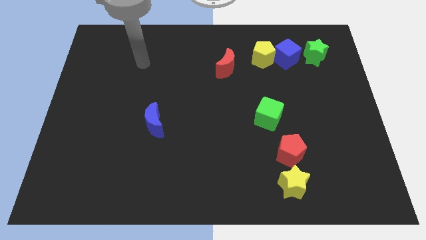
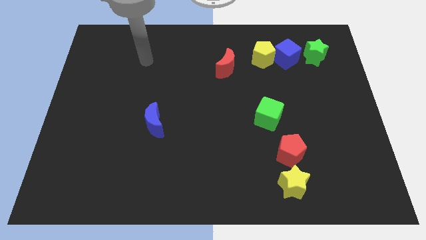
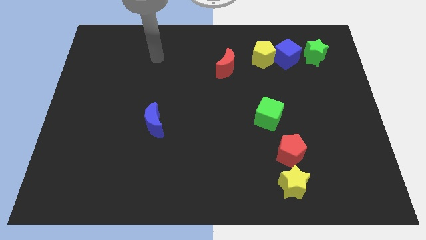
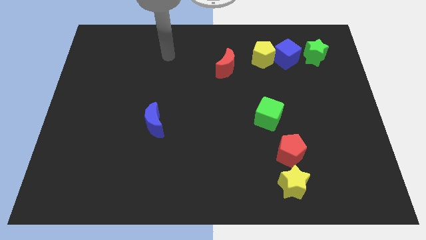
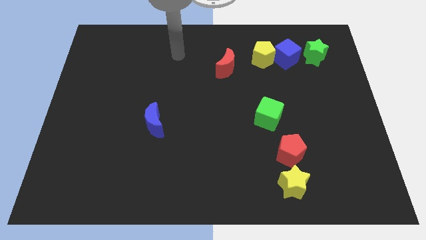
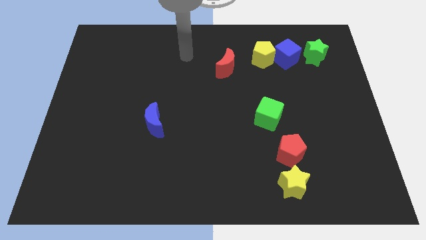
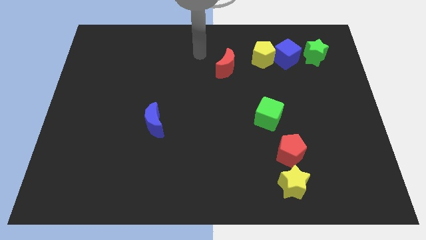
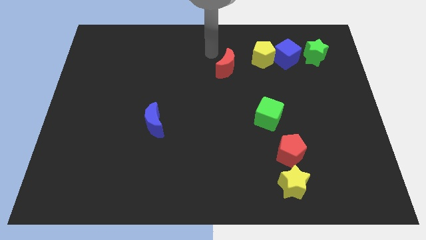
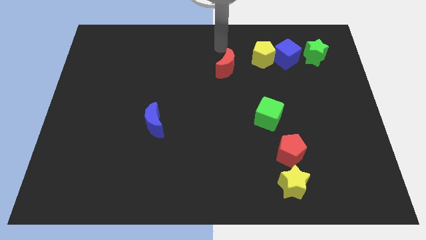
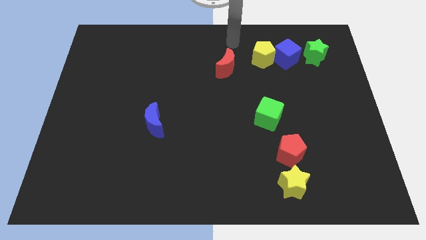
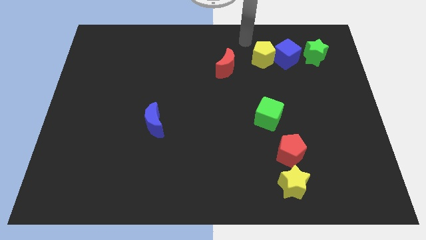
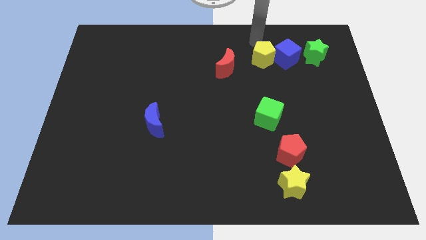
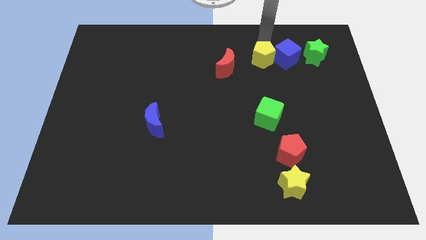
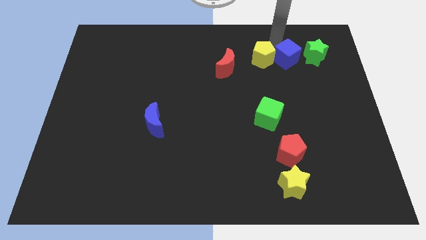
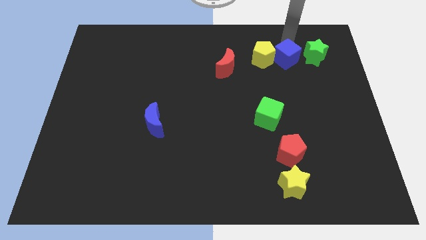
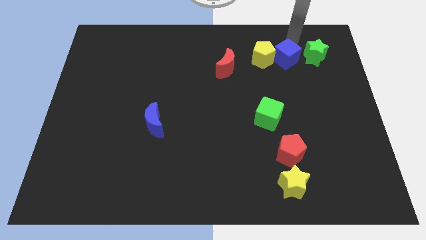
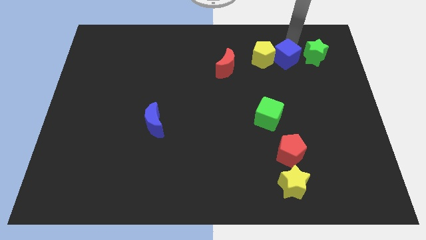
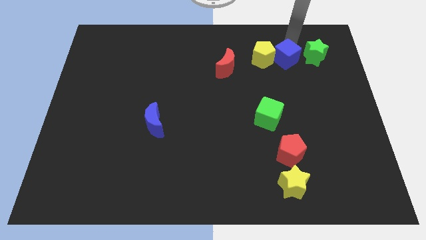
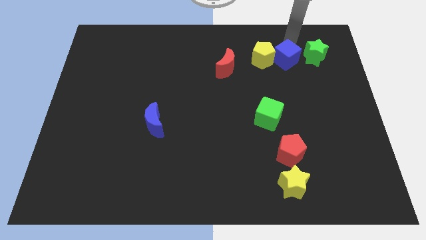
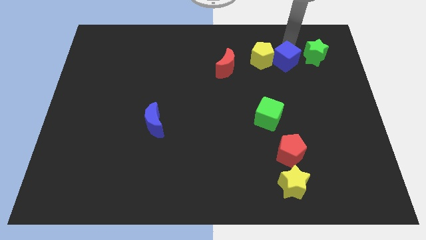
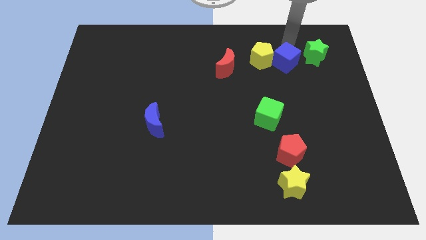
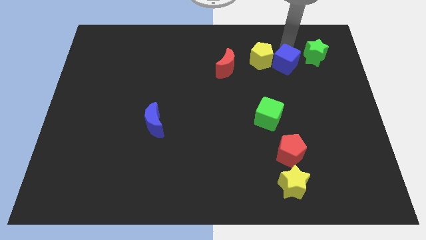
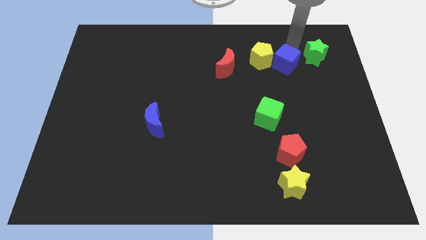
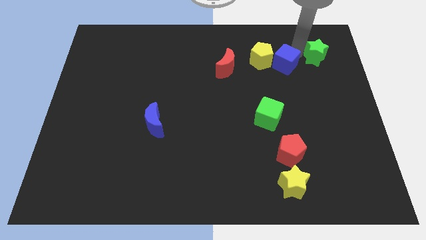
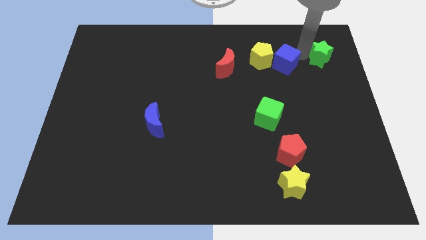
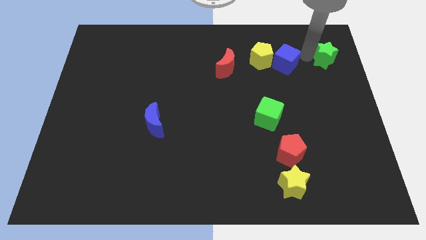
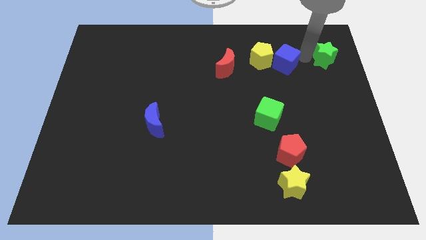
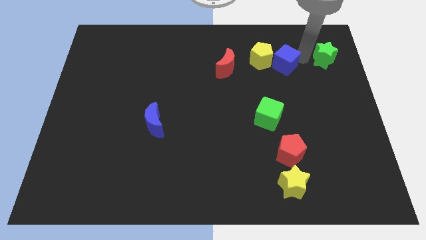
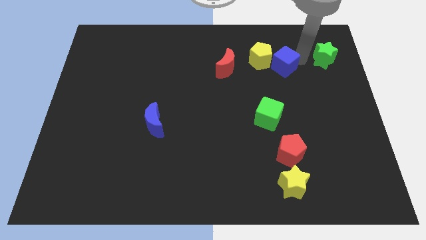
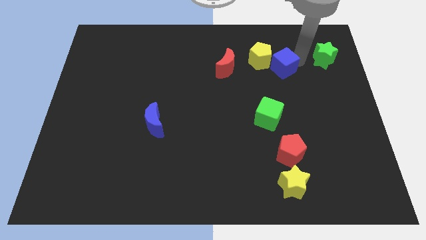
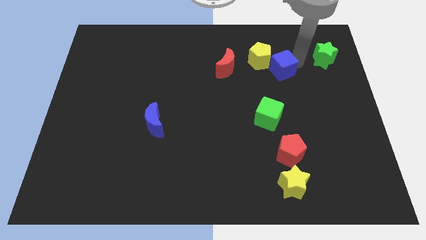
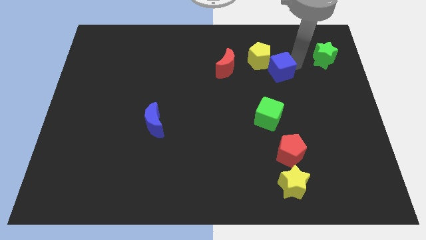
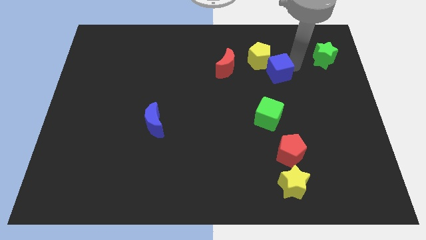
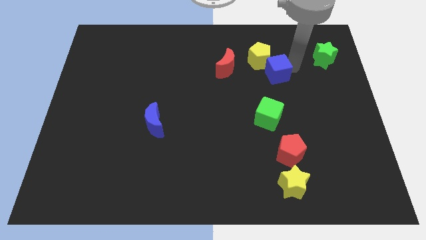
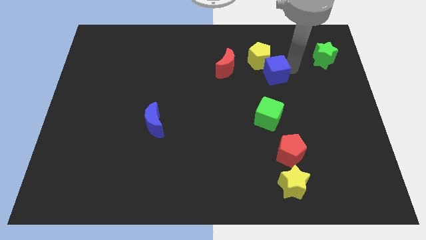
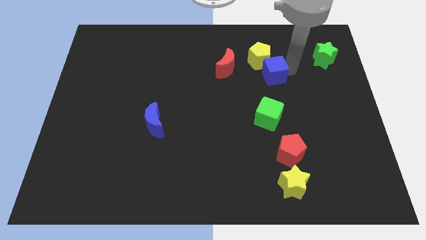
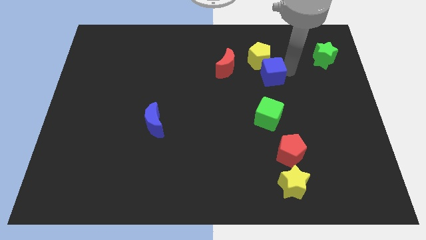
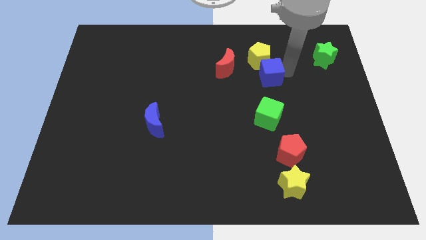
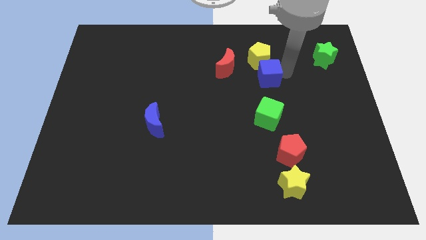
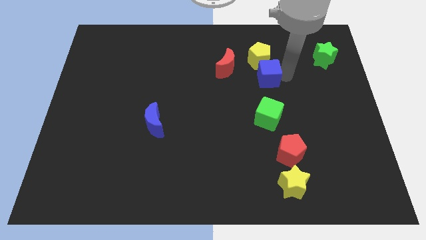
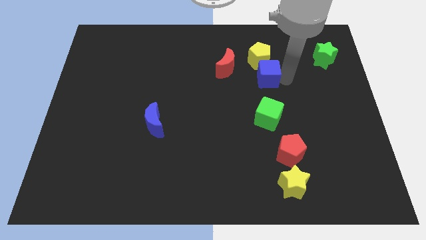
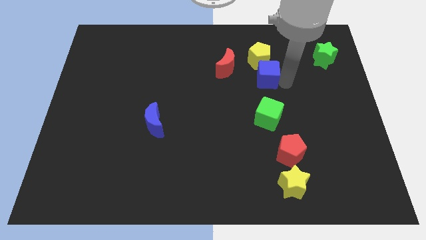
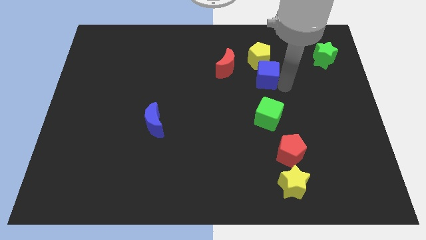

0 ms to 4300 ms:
move the blue cube away from the yellow pentagon and green star

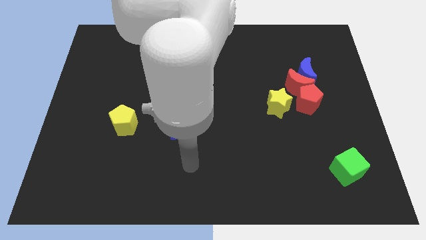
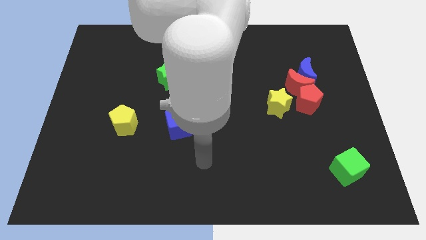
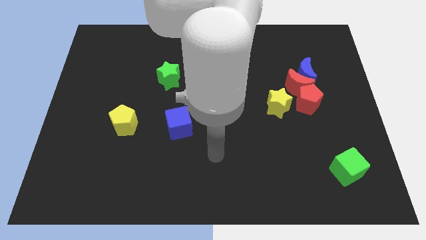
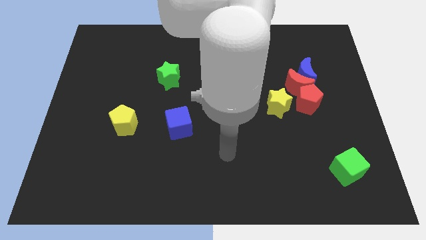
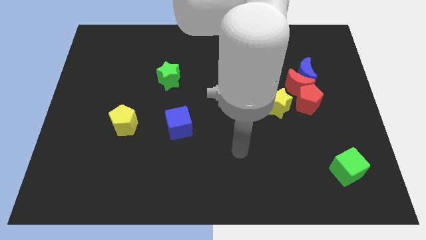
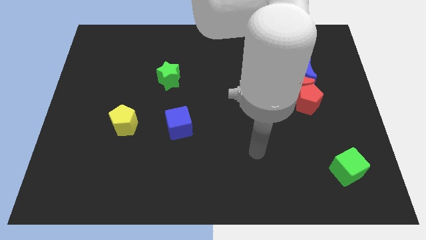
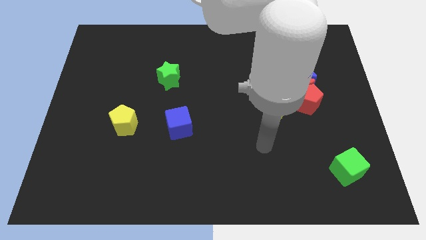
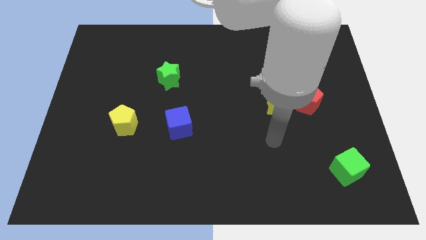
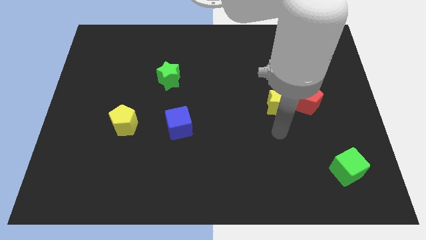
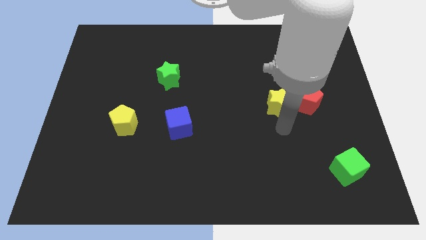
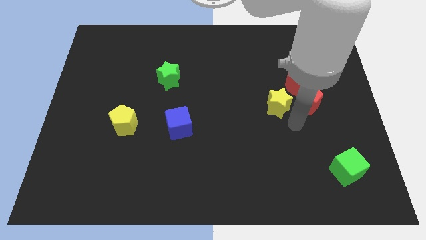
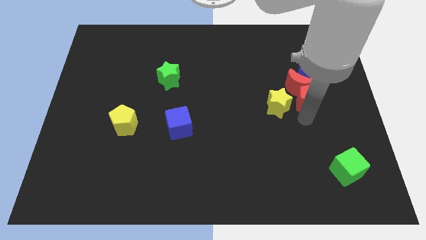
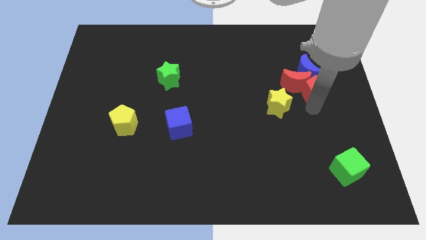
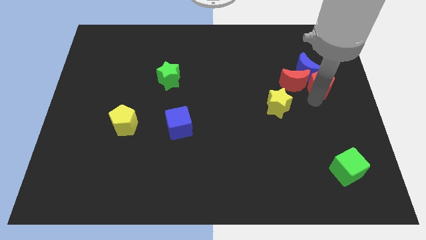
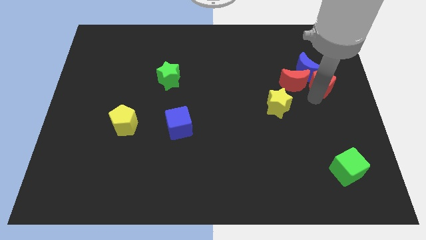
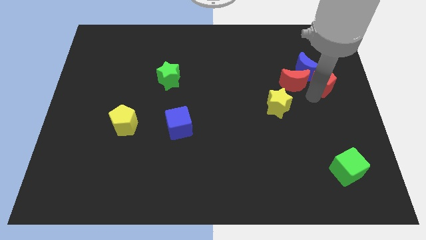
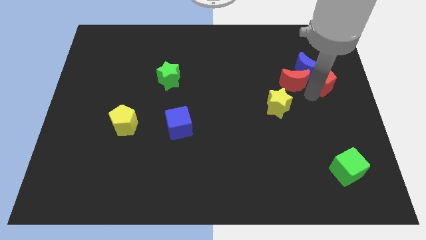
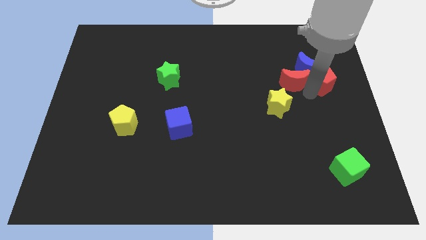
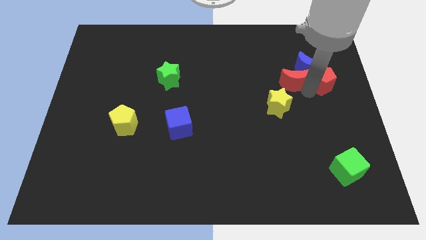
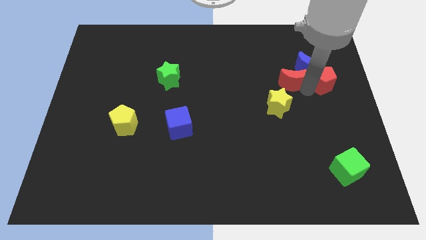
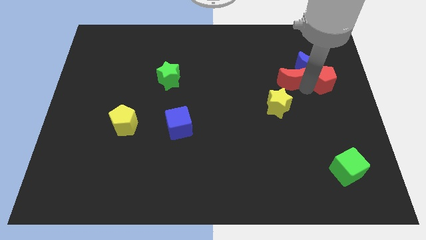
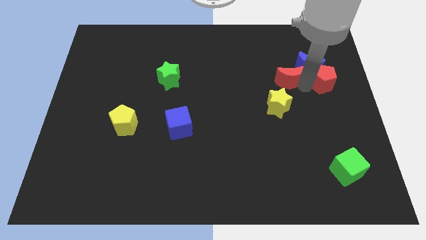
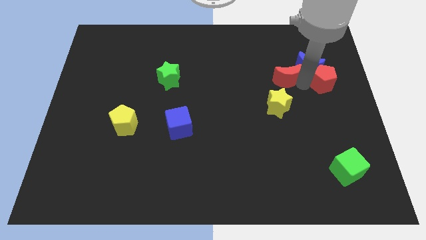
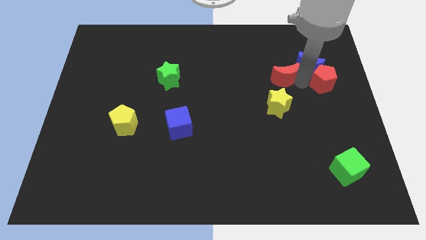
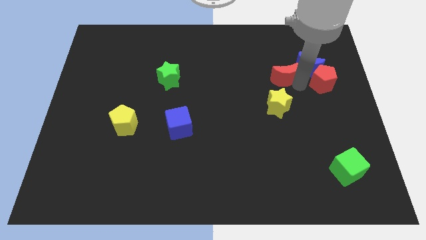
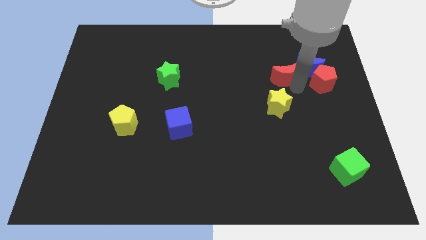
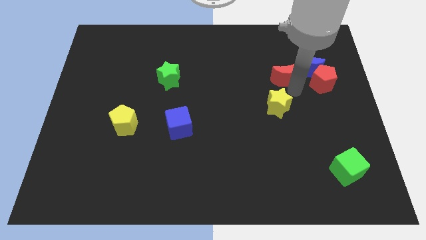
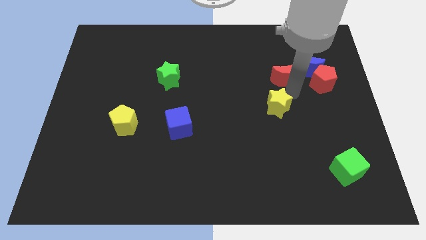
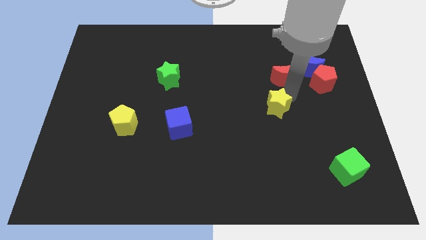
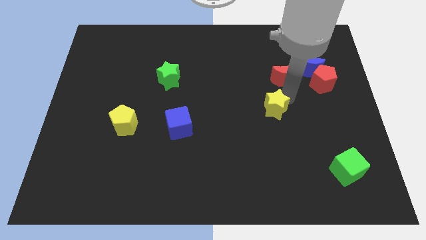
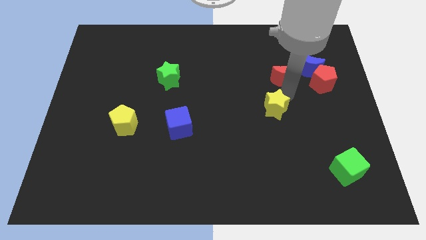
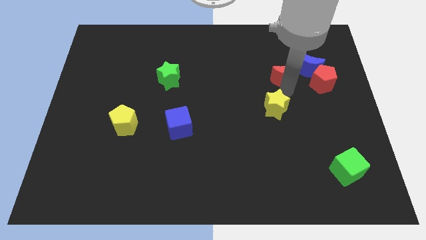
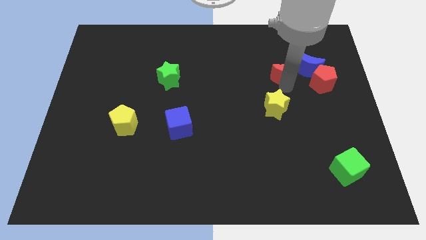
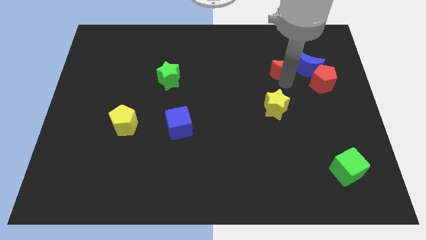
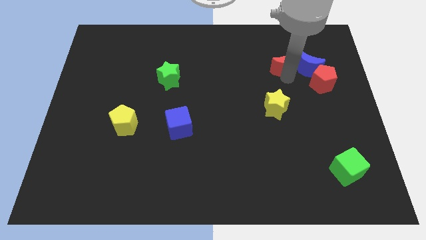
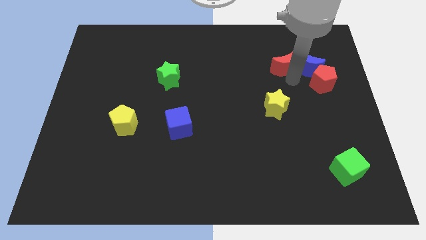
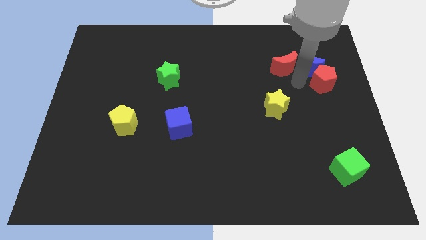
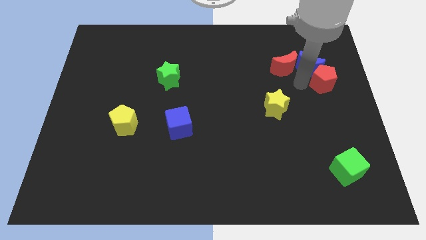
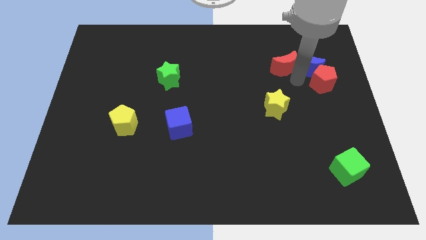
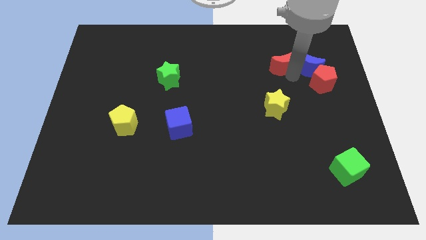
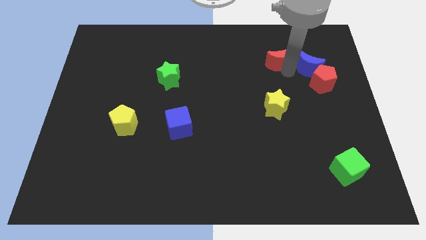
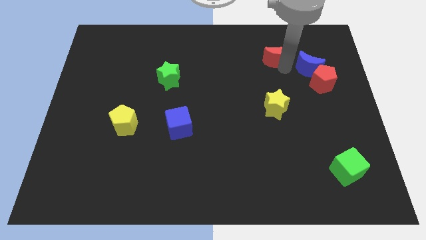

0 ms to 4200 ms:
move the red moon away from the blue moon, red pentagon, and yellow star

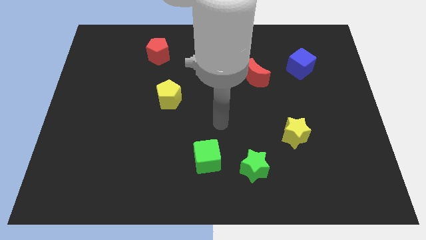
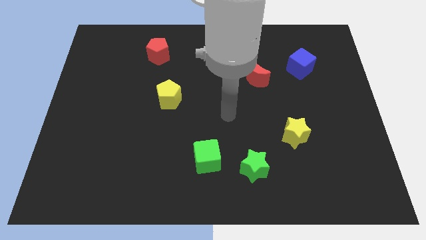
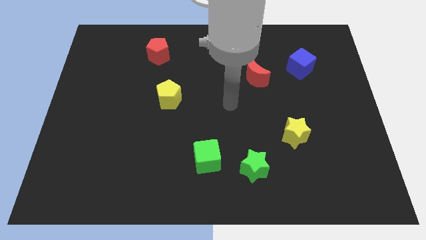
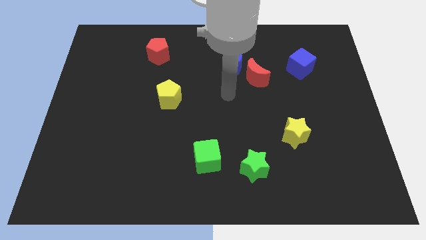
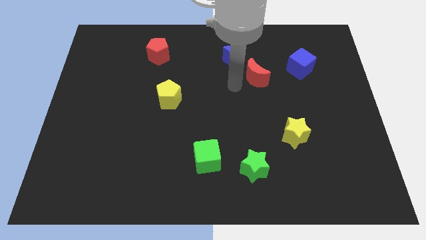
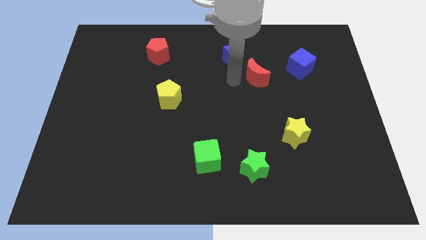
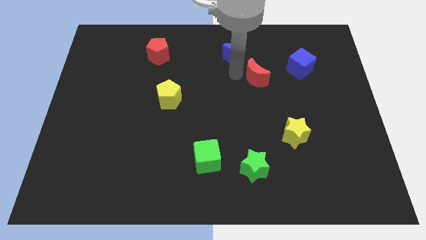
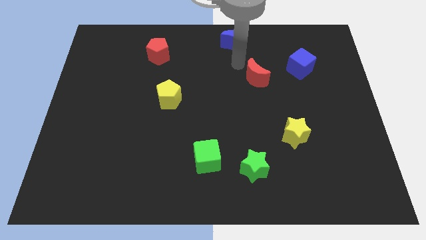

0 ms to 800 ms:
move the red moon away from the blue moon
